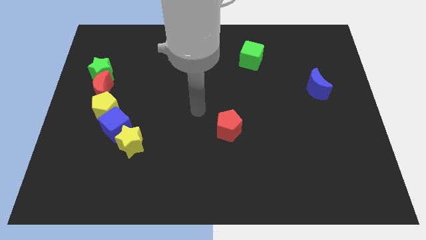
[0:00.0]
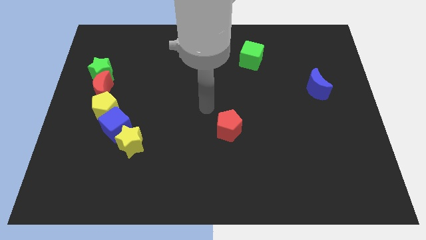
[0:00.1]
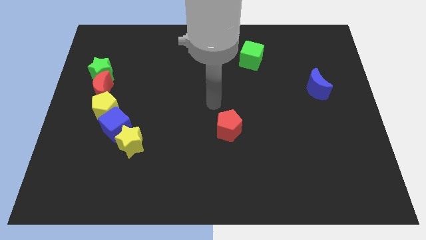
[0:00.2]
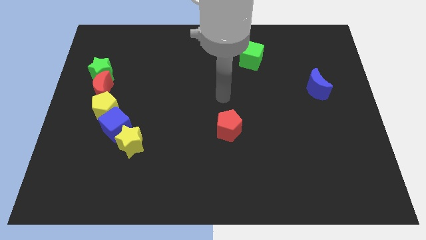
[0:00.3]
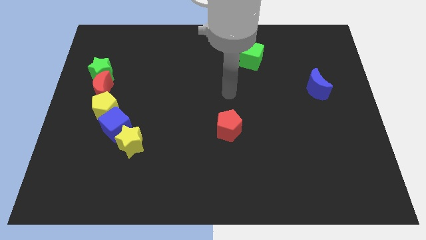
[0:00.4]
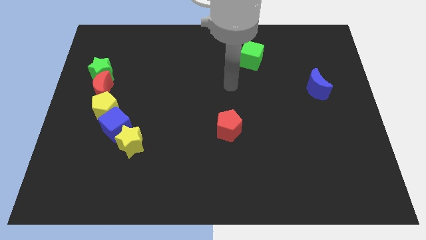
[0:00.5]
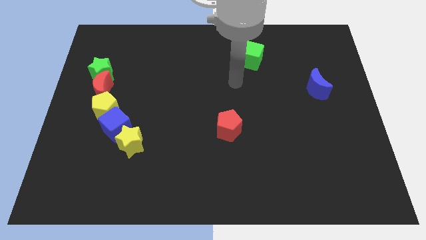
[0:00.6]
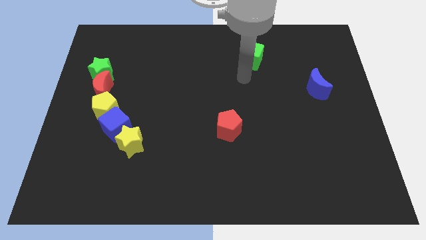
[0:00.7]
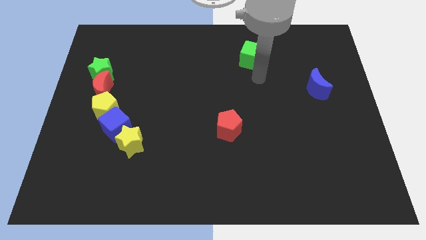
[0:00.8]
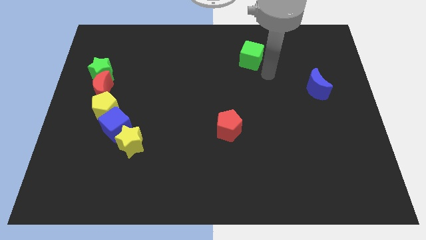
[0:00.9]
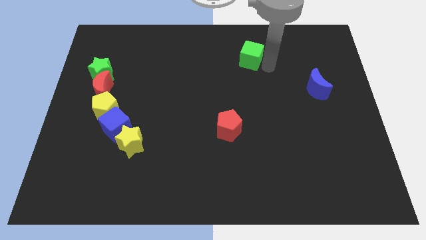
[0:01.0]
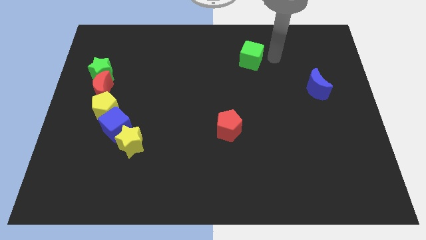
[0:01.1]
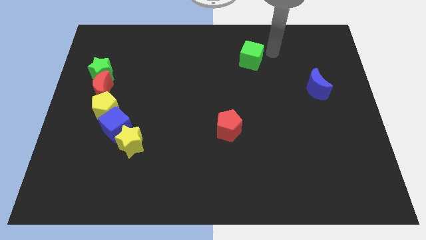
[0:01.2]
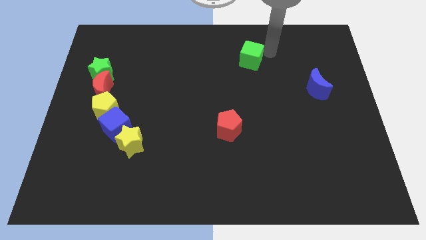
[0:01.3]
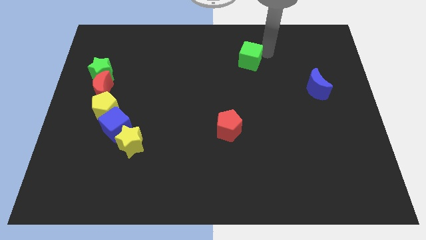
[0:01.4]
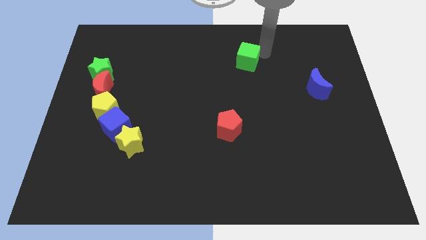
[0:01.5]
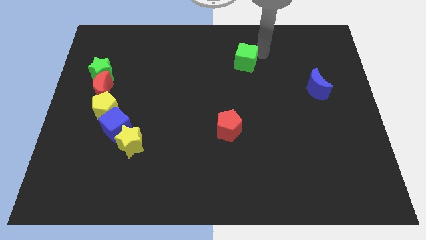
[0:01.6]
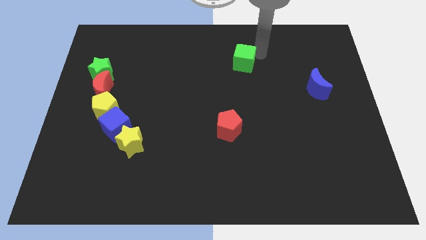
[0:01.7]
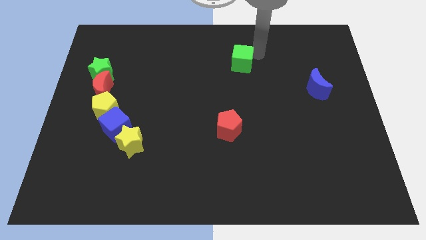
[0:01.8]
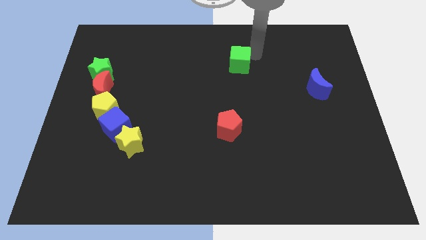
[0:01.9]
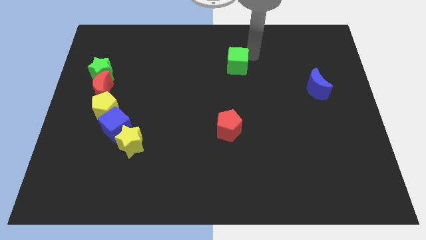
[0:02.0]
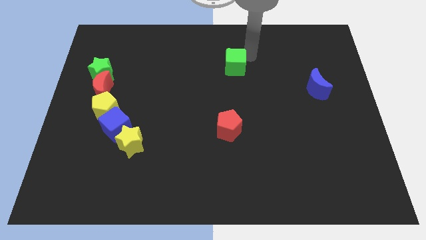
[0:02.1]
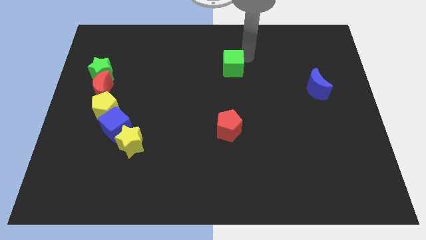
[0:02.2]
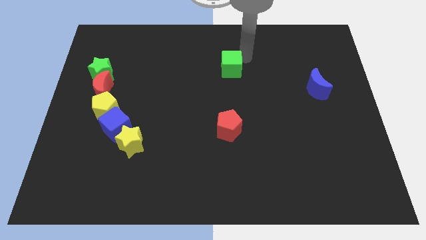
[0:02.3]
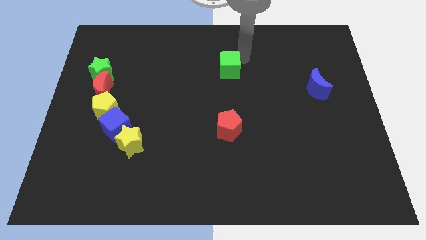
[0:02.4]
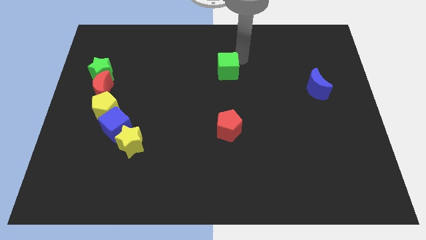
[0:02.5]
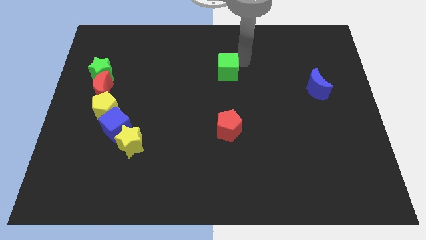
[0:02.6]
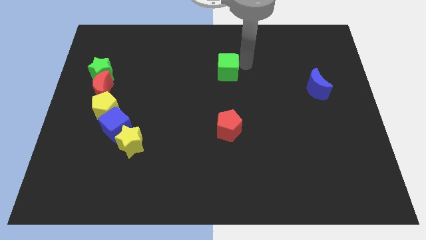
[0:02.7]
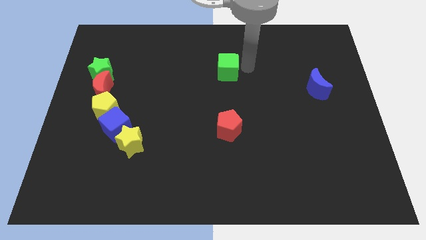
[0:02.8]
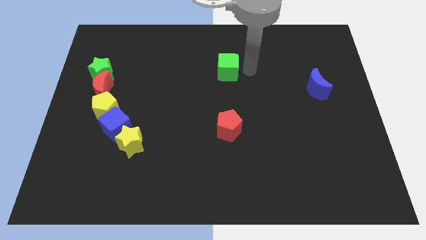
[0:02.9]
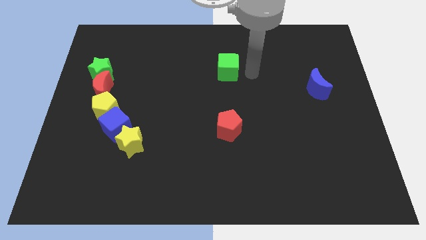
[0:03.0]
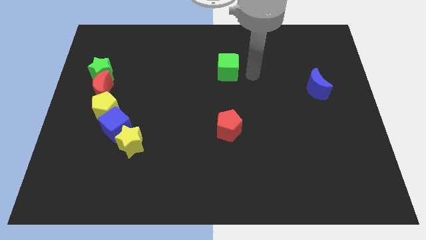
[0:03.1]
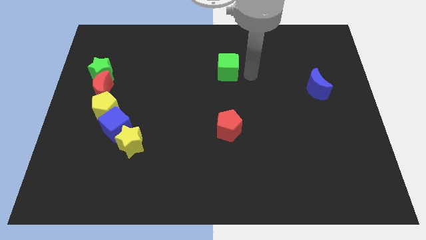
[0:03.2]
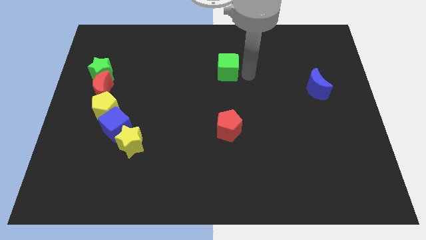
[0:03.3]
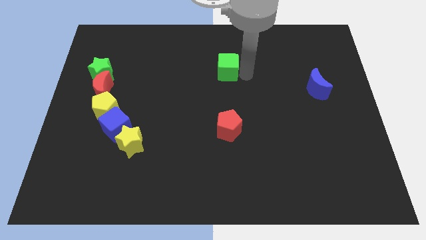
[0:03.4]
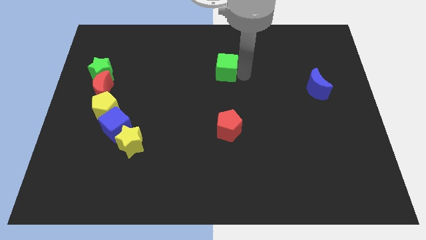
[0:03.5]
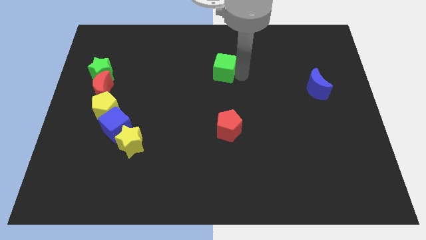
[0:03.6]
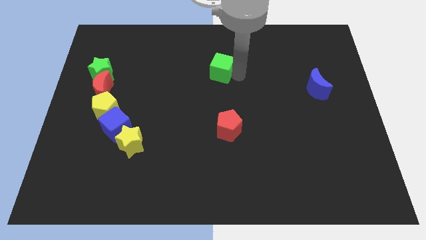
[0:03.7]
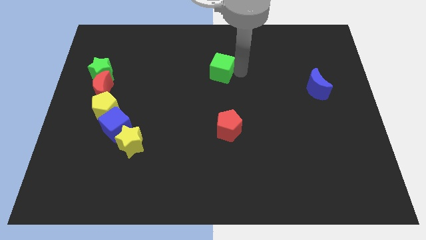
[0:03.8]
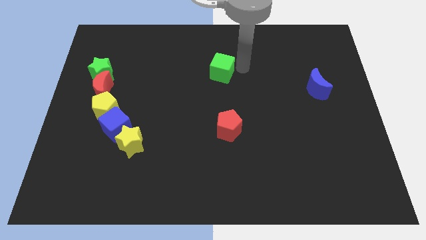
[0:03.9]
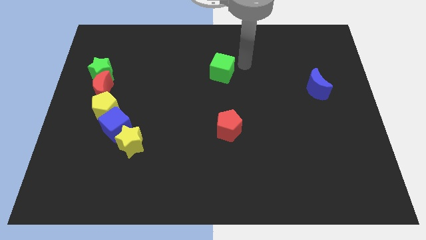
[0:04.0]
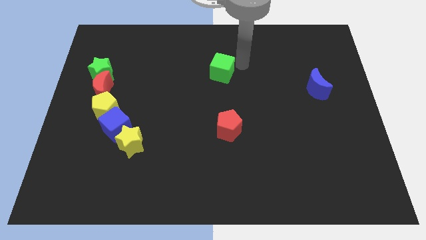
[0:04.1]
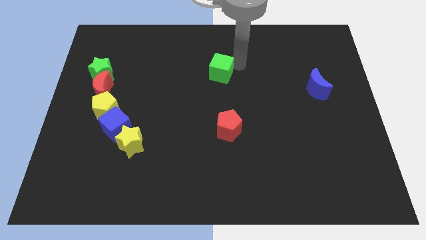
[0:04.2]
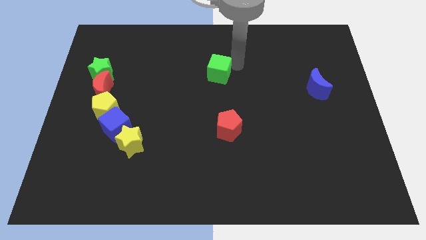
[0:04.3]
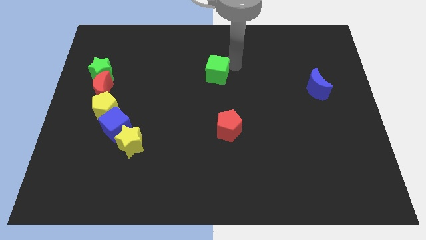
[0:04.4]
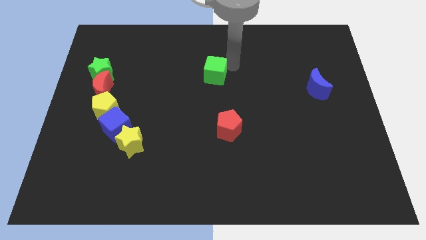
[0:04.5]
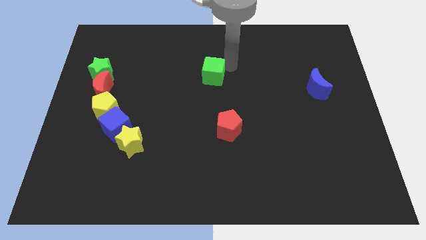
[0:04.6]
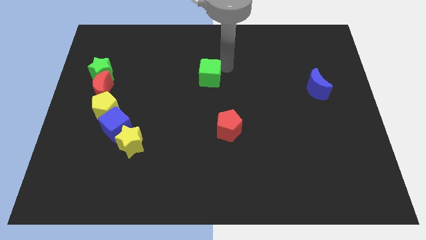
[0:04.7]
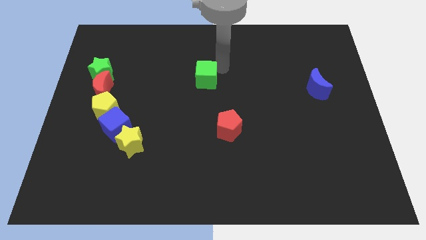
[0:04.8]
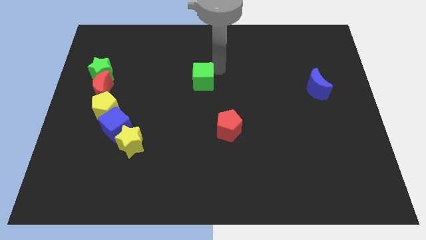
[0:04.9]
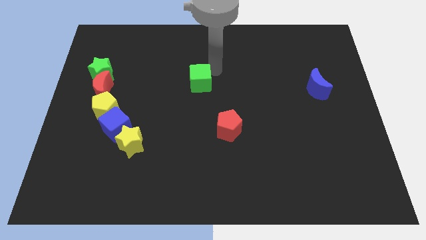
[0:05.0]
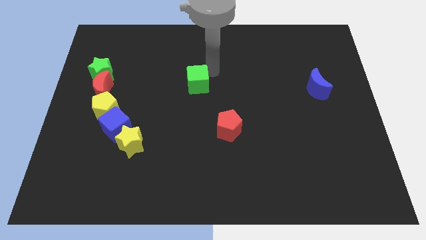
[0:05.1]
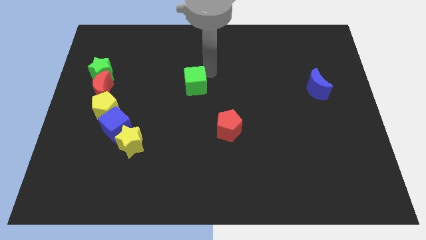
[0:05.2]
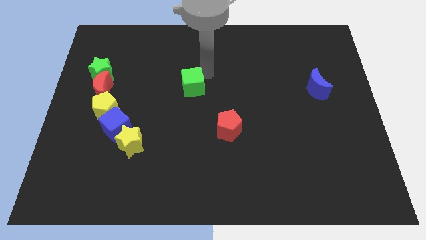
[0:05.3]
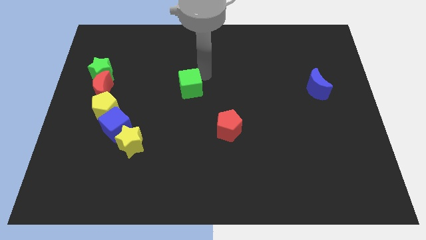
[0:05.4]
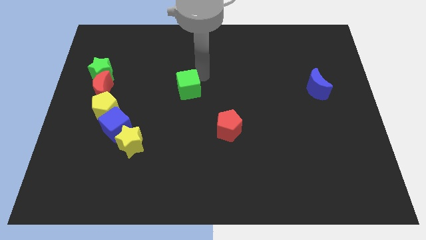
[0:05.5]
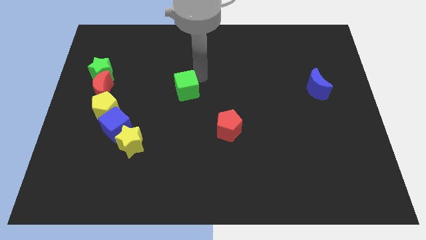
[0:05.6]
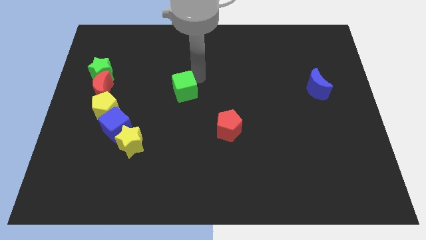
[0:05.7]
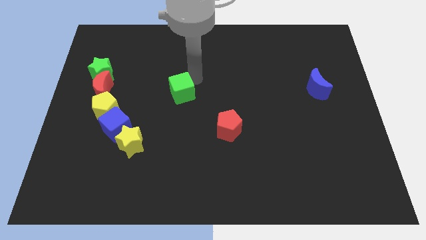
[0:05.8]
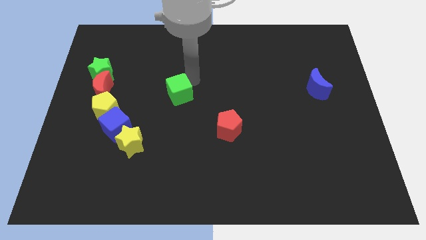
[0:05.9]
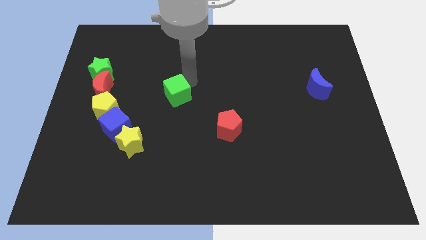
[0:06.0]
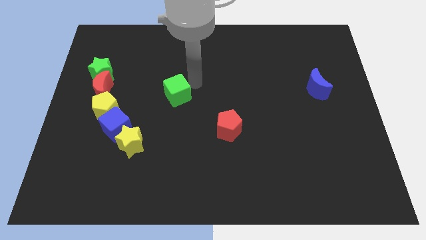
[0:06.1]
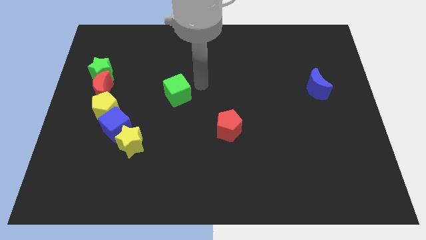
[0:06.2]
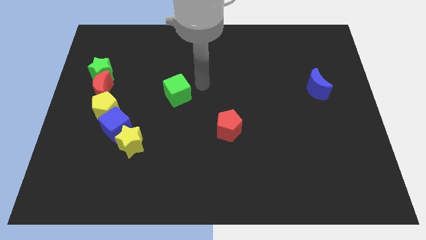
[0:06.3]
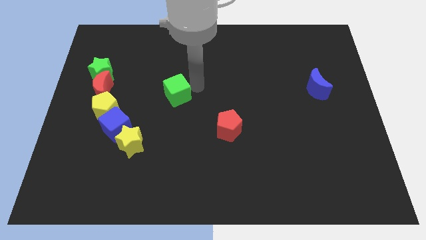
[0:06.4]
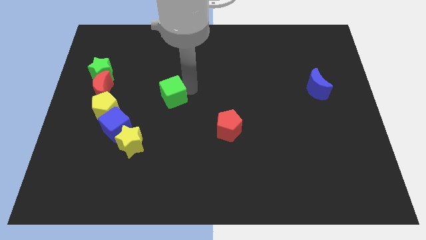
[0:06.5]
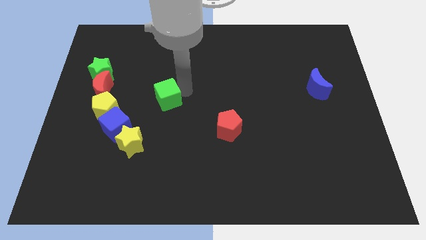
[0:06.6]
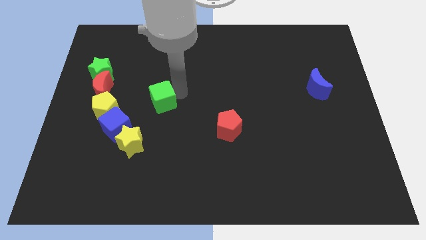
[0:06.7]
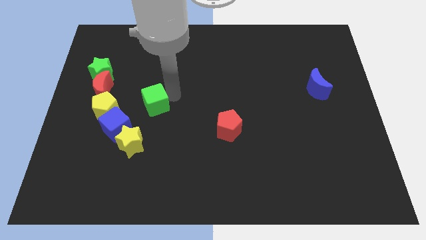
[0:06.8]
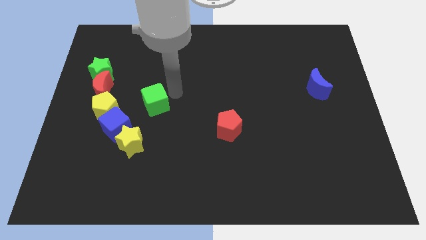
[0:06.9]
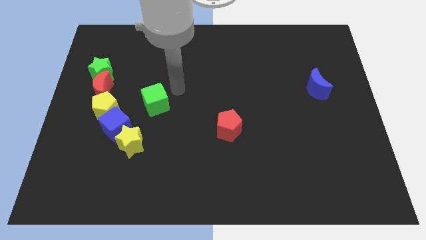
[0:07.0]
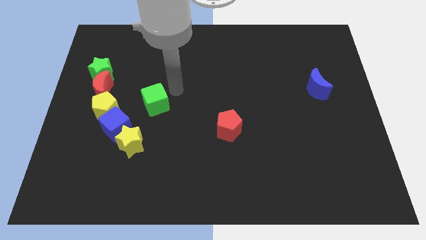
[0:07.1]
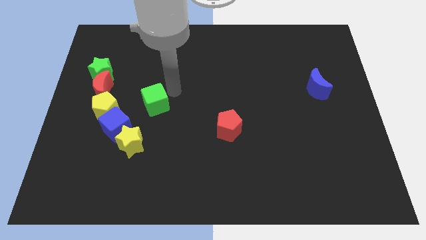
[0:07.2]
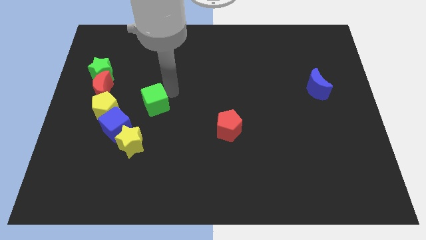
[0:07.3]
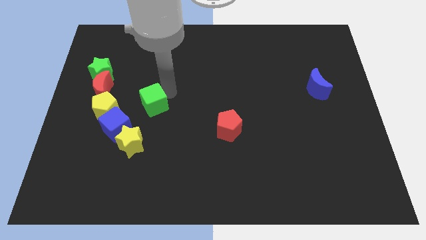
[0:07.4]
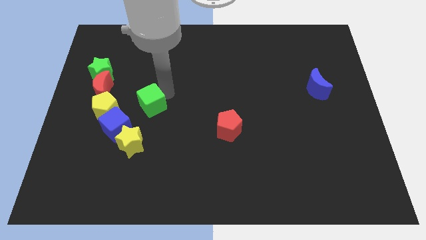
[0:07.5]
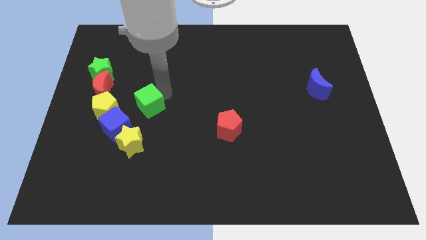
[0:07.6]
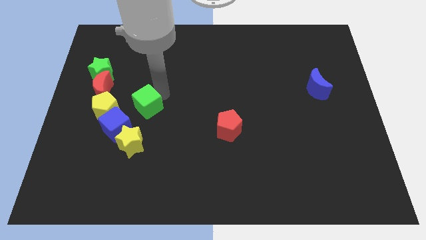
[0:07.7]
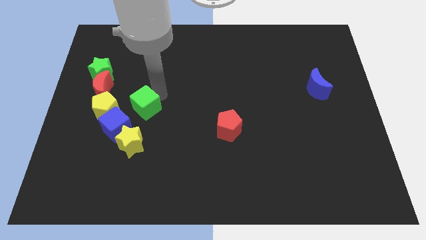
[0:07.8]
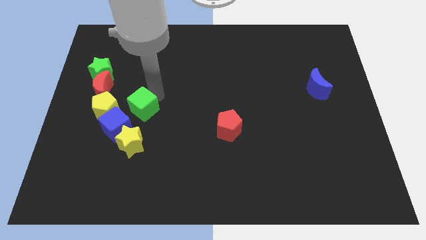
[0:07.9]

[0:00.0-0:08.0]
push the green cube to the bottom right of the red moon
